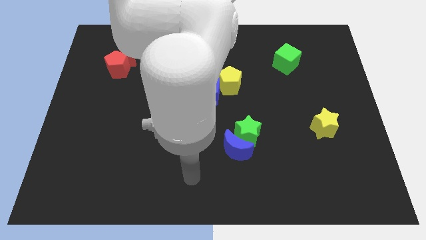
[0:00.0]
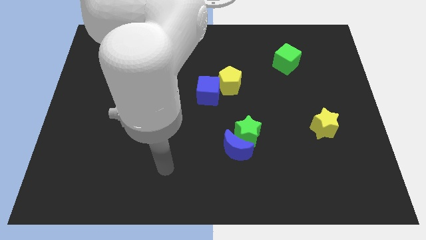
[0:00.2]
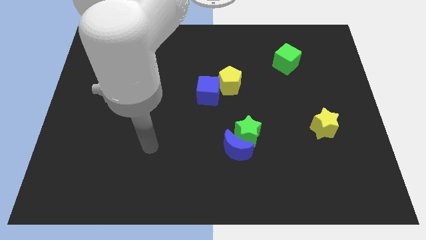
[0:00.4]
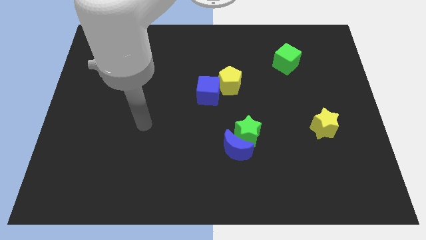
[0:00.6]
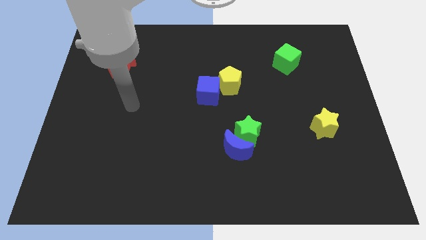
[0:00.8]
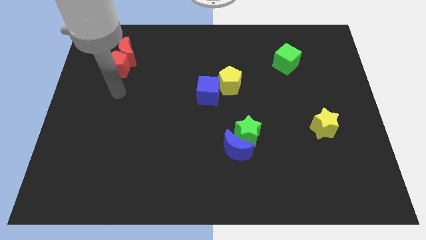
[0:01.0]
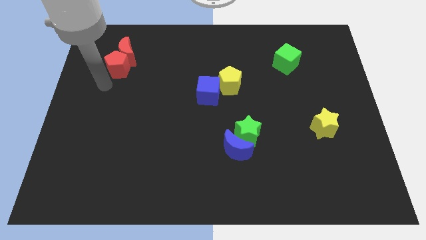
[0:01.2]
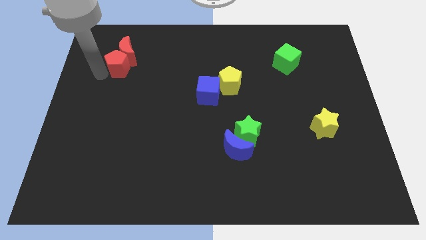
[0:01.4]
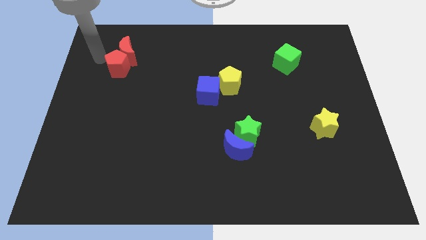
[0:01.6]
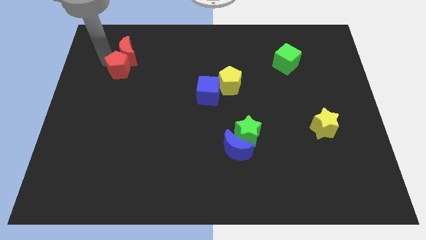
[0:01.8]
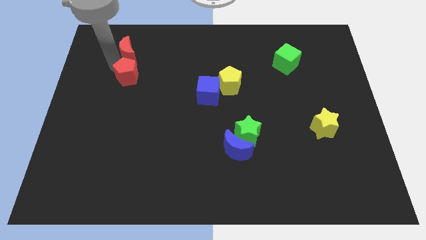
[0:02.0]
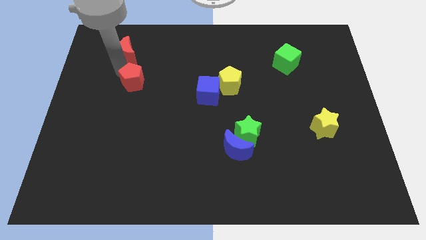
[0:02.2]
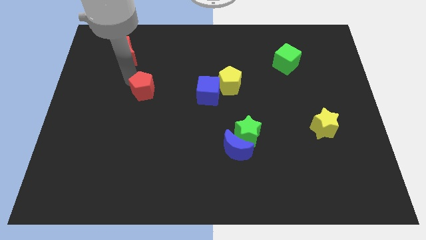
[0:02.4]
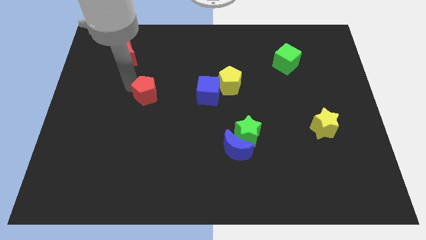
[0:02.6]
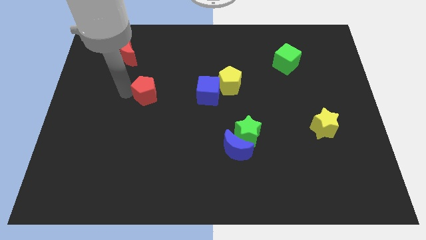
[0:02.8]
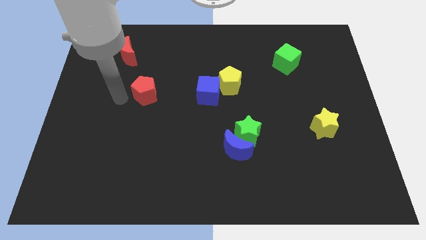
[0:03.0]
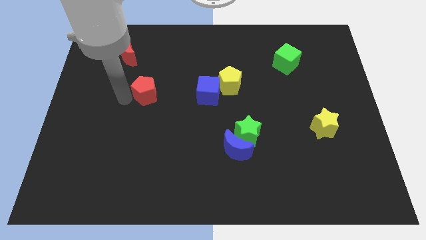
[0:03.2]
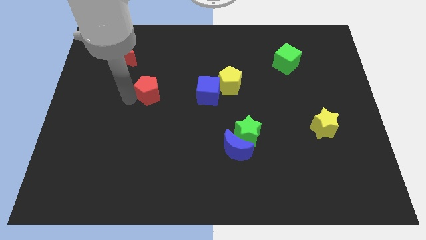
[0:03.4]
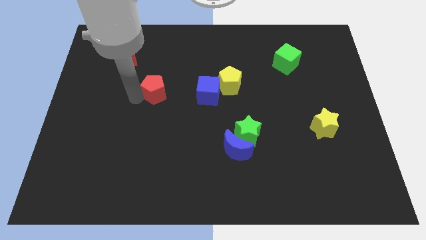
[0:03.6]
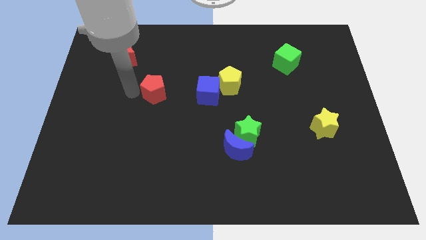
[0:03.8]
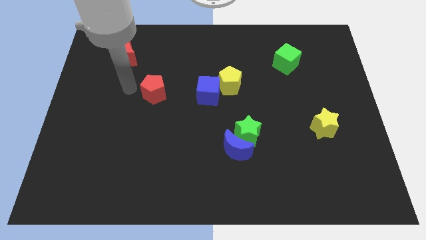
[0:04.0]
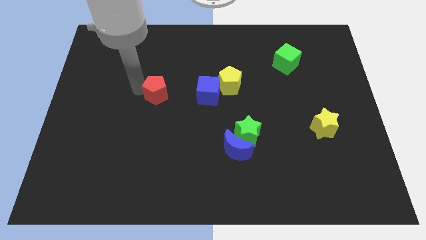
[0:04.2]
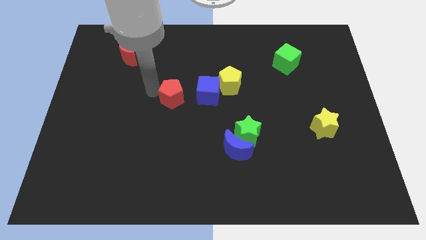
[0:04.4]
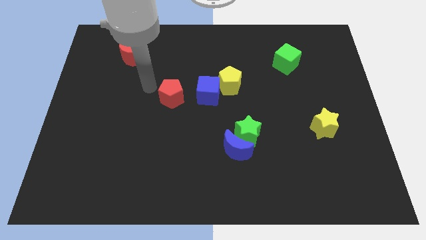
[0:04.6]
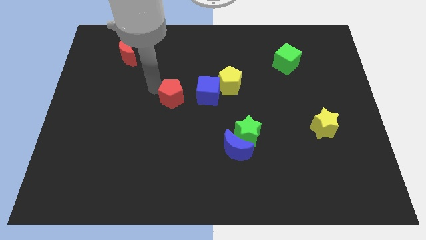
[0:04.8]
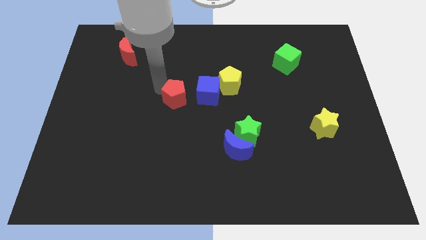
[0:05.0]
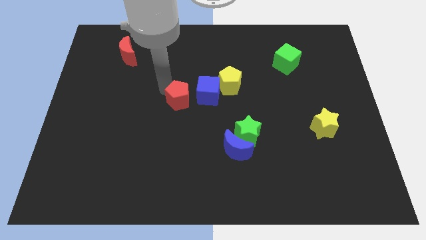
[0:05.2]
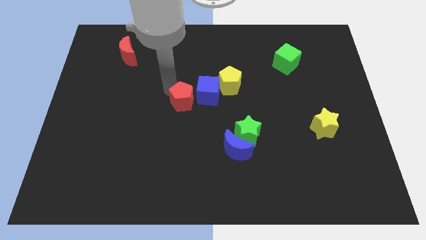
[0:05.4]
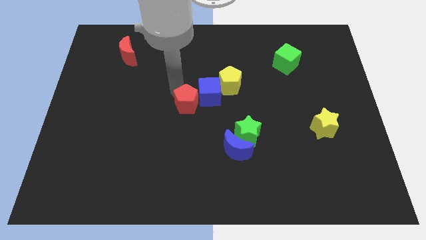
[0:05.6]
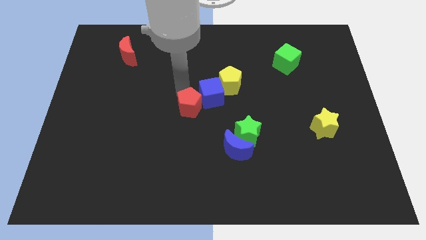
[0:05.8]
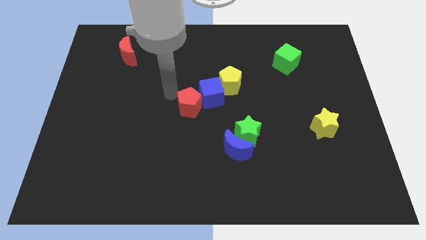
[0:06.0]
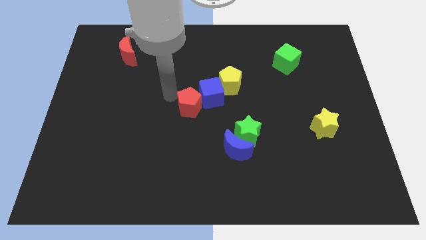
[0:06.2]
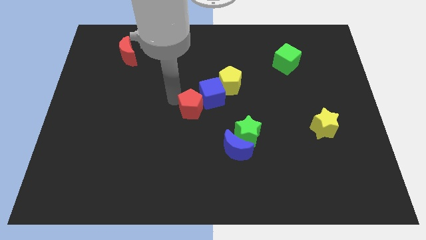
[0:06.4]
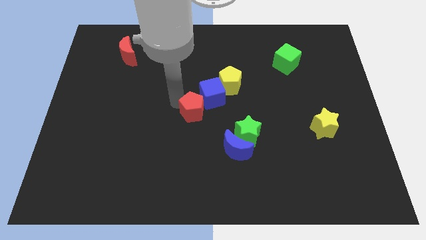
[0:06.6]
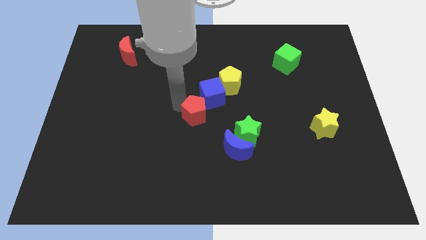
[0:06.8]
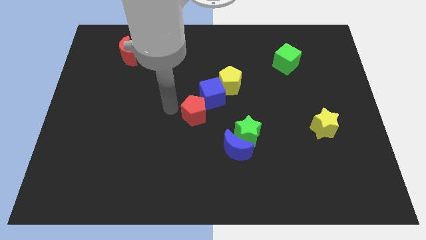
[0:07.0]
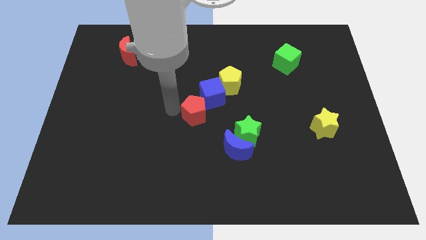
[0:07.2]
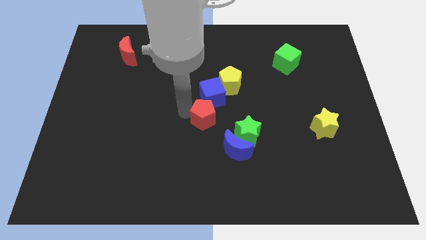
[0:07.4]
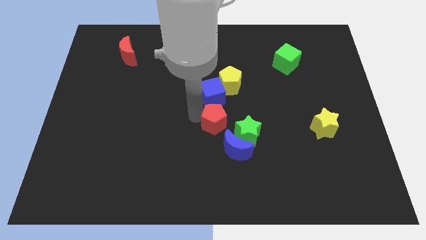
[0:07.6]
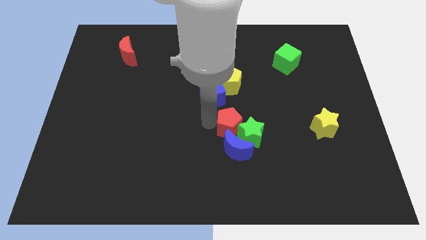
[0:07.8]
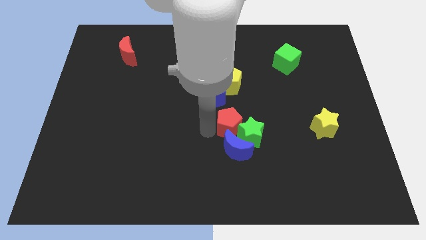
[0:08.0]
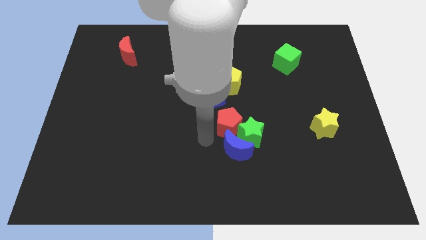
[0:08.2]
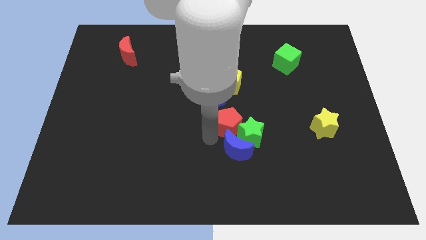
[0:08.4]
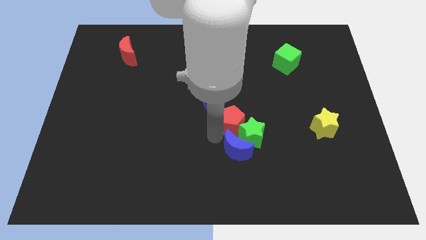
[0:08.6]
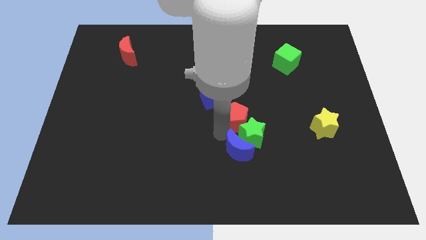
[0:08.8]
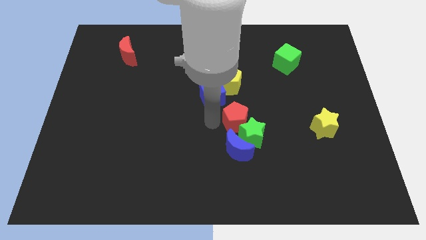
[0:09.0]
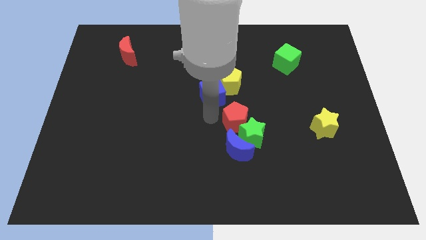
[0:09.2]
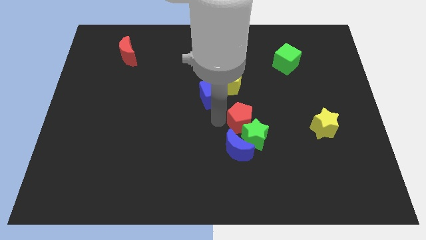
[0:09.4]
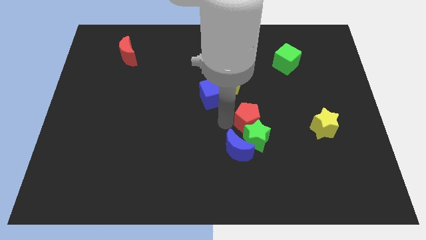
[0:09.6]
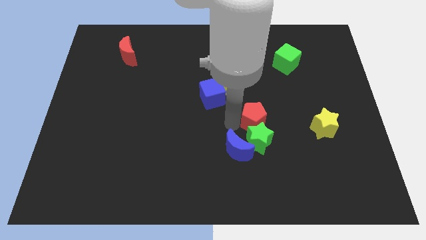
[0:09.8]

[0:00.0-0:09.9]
slide the red pentagon left of the yellow star

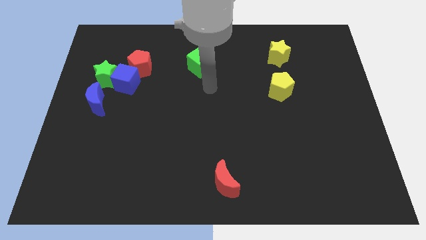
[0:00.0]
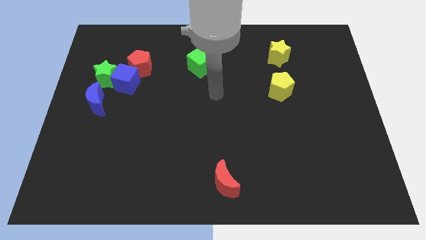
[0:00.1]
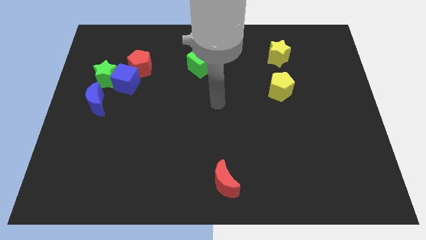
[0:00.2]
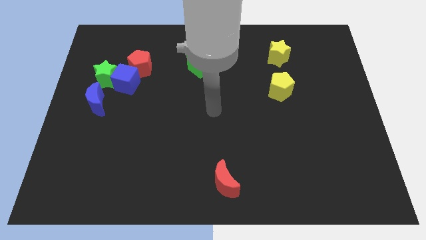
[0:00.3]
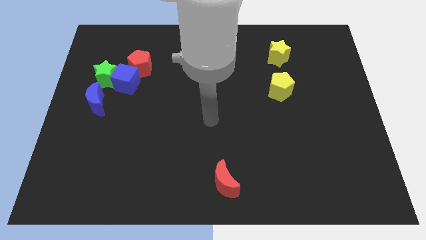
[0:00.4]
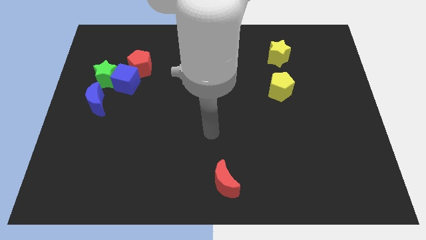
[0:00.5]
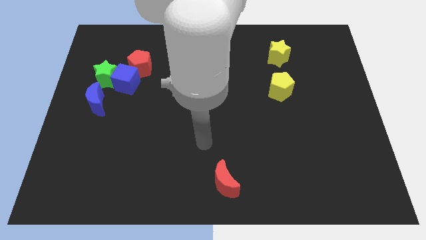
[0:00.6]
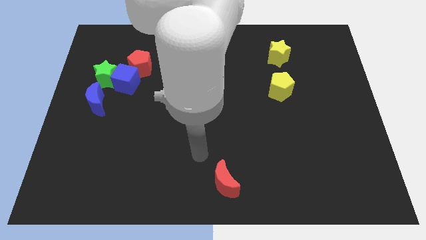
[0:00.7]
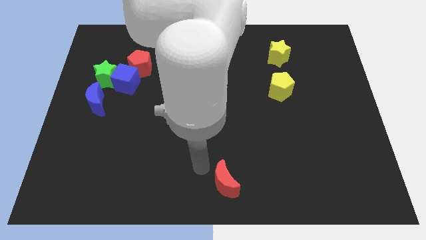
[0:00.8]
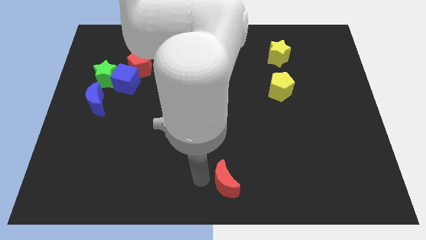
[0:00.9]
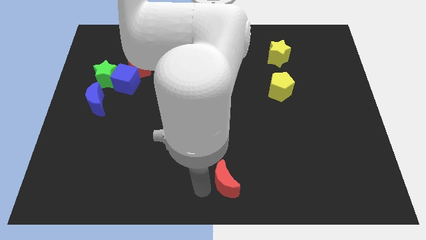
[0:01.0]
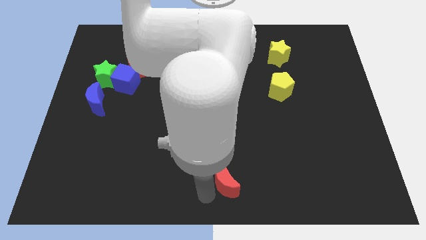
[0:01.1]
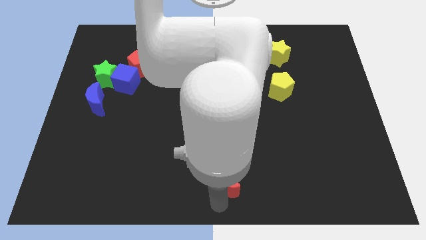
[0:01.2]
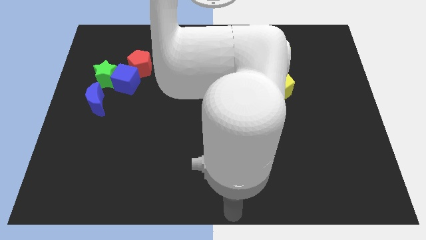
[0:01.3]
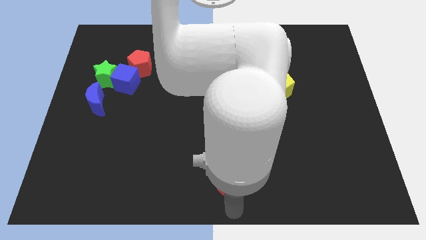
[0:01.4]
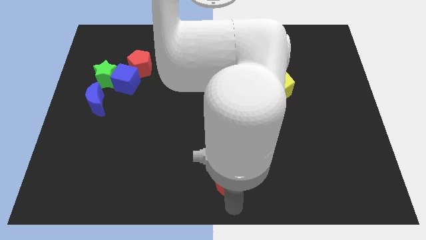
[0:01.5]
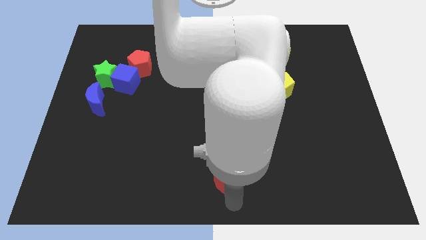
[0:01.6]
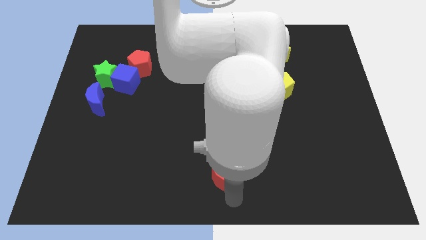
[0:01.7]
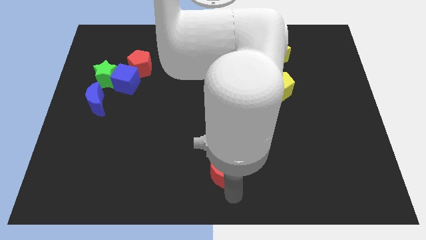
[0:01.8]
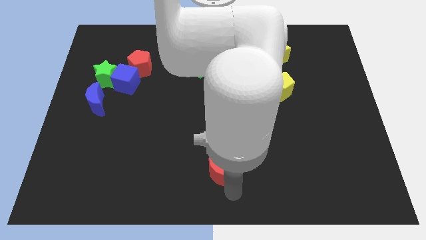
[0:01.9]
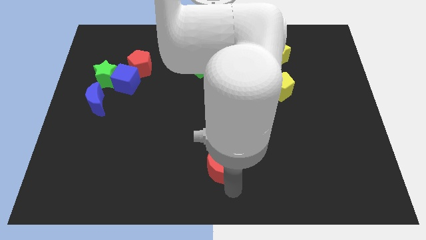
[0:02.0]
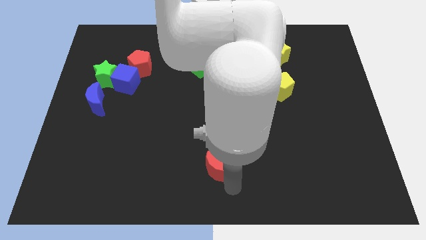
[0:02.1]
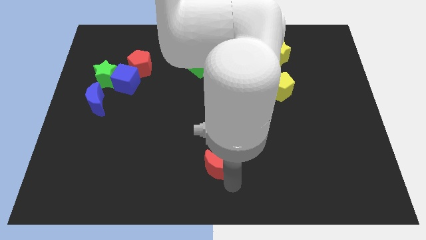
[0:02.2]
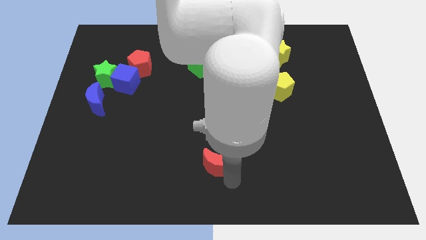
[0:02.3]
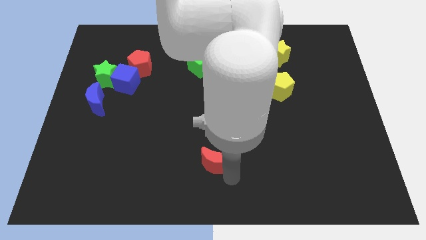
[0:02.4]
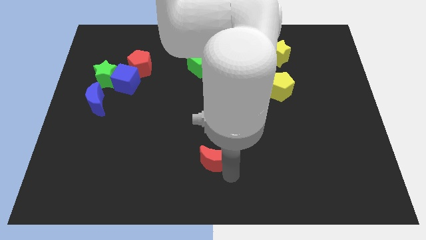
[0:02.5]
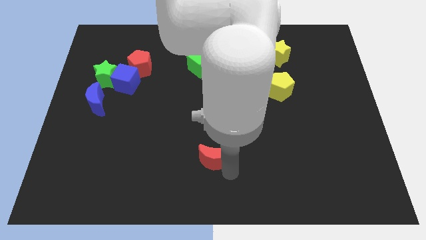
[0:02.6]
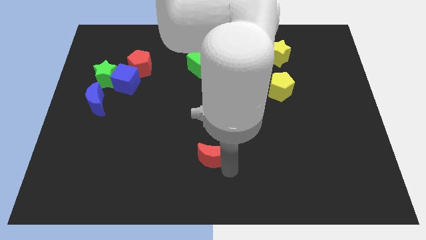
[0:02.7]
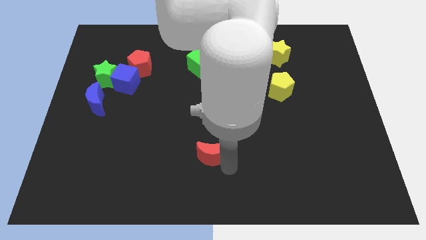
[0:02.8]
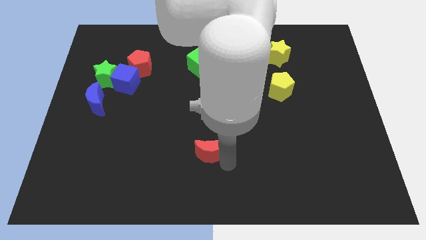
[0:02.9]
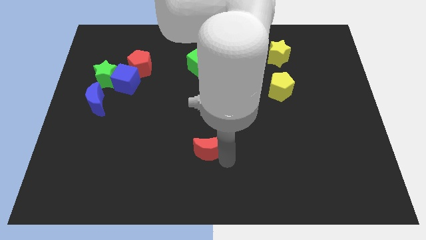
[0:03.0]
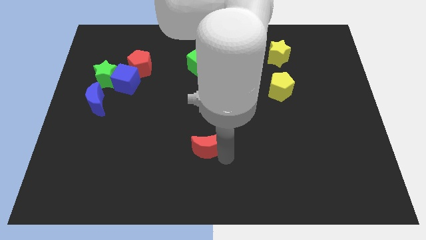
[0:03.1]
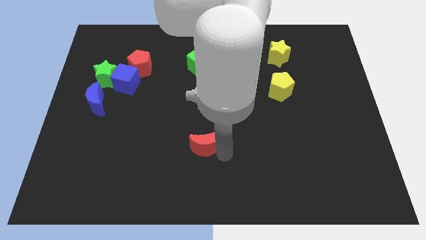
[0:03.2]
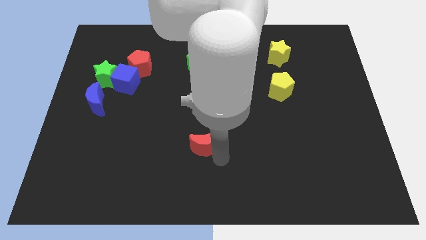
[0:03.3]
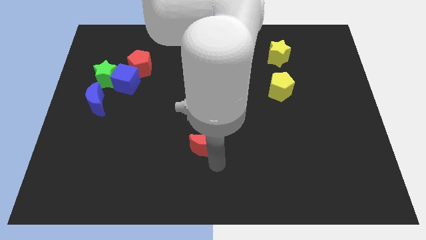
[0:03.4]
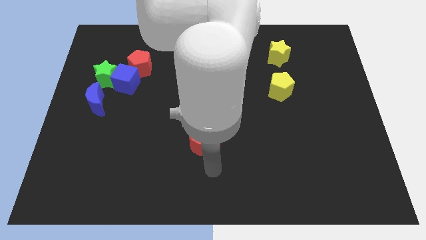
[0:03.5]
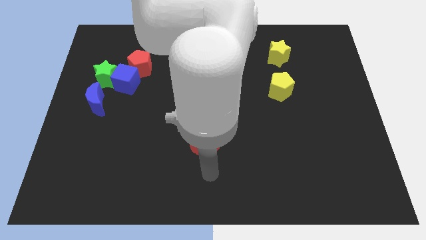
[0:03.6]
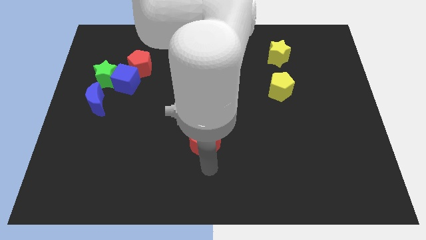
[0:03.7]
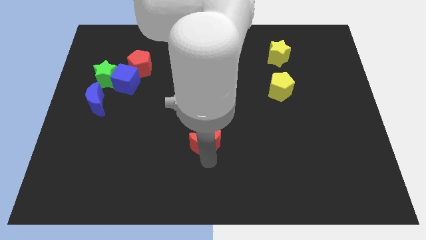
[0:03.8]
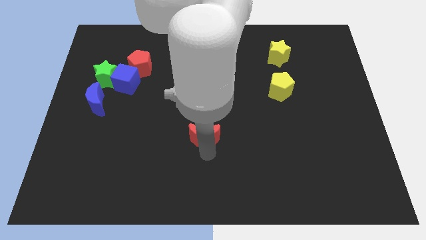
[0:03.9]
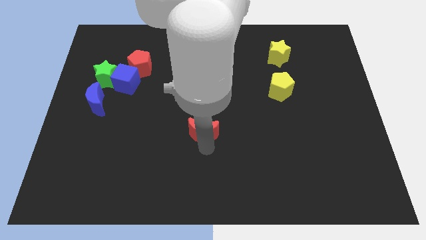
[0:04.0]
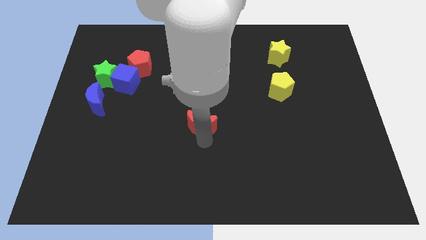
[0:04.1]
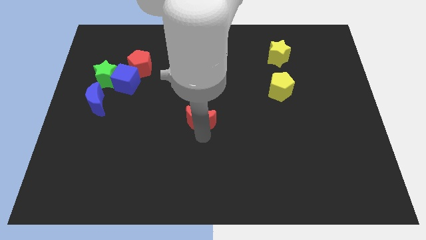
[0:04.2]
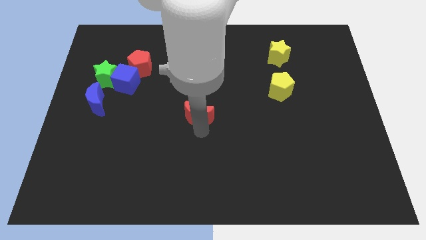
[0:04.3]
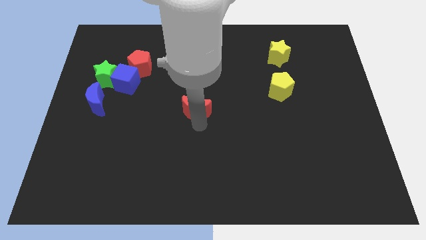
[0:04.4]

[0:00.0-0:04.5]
slide the red moon to the bottom of the green cube
